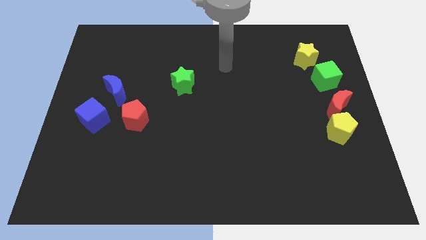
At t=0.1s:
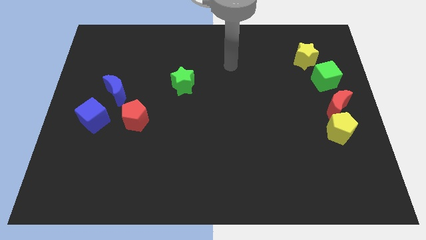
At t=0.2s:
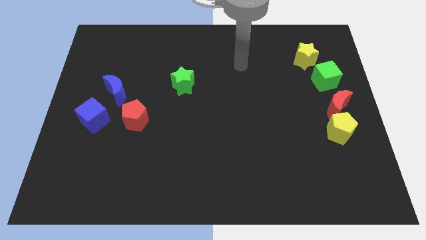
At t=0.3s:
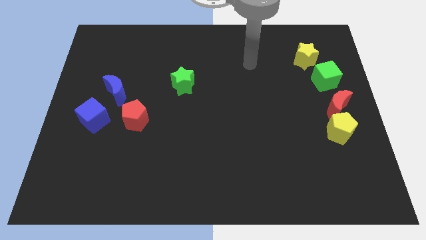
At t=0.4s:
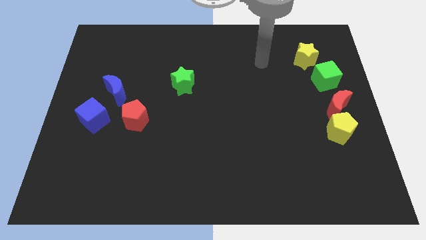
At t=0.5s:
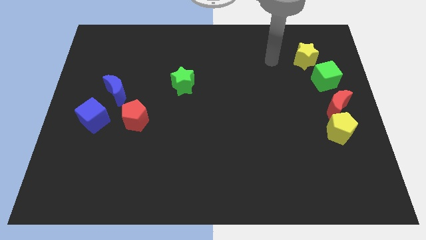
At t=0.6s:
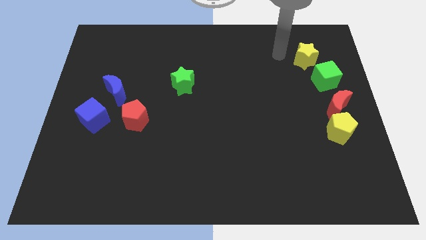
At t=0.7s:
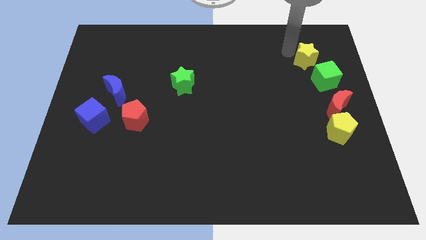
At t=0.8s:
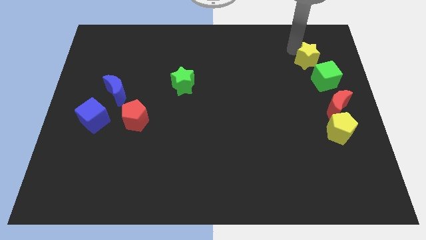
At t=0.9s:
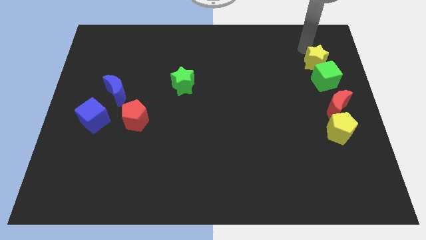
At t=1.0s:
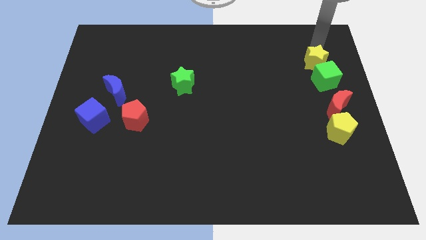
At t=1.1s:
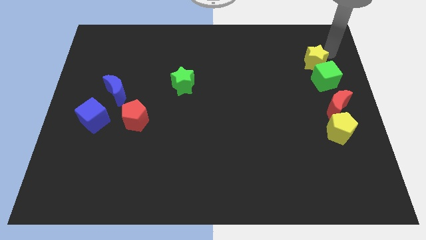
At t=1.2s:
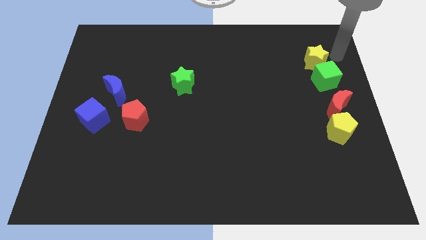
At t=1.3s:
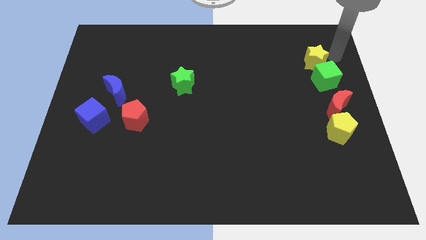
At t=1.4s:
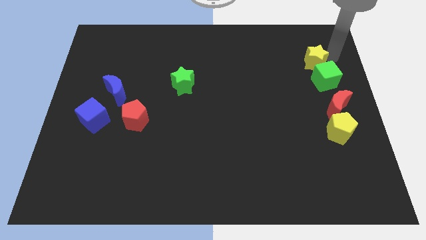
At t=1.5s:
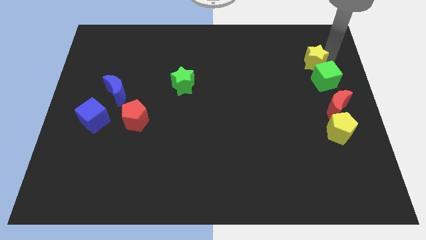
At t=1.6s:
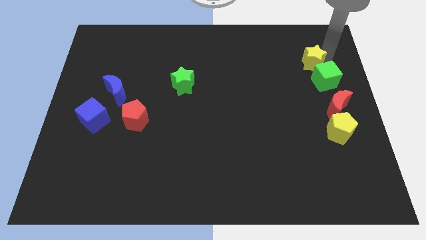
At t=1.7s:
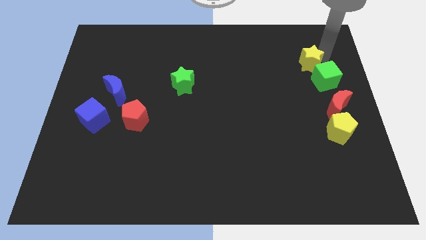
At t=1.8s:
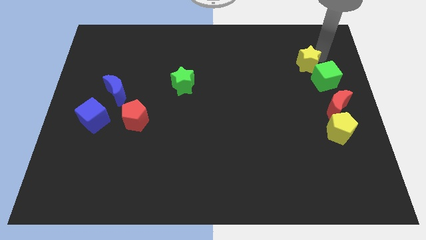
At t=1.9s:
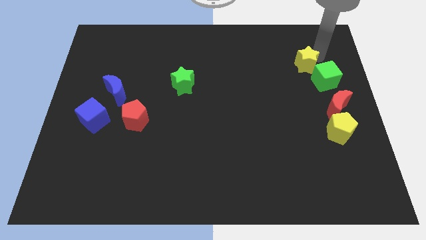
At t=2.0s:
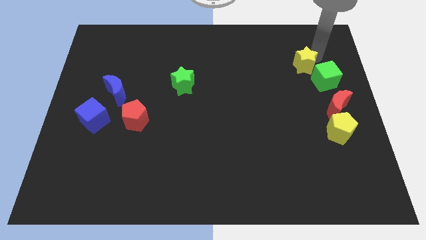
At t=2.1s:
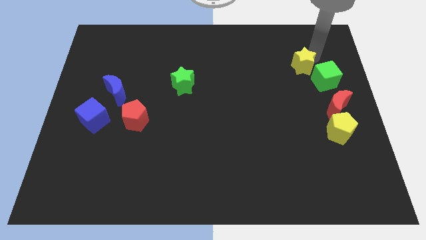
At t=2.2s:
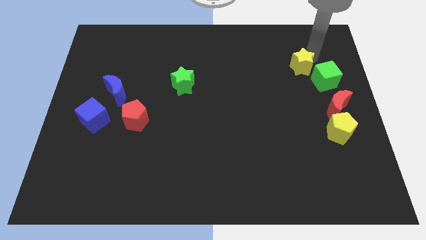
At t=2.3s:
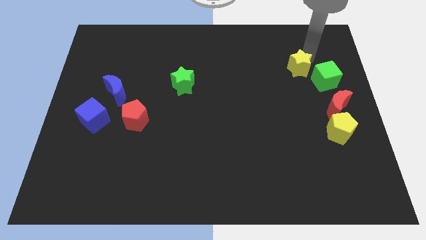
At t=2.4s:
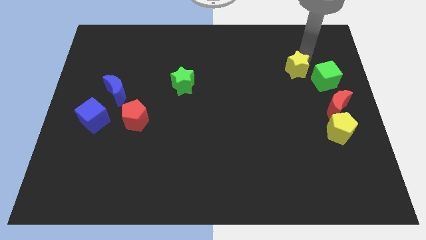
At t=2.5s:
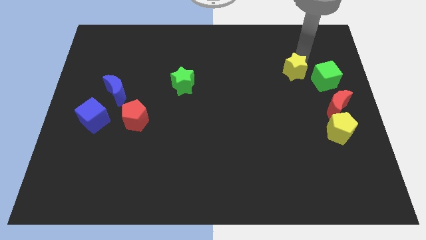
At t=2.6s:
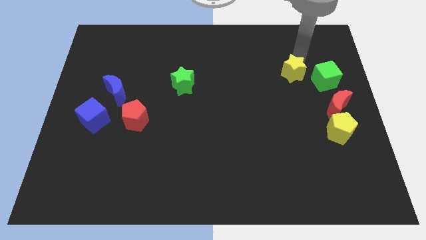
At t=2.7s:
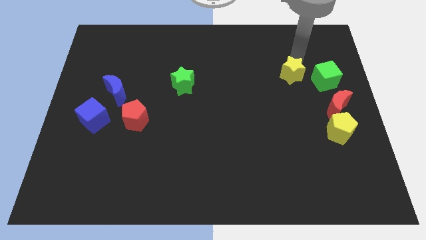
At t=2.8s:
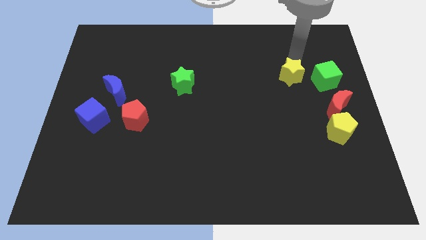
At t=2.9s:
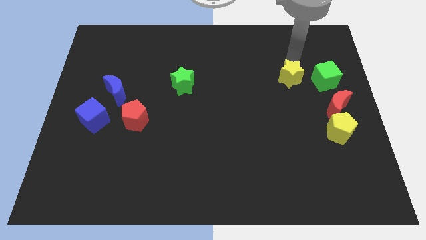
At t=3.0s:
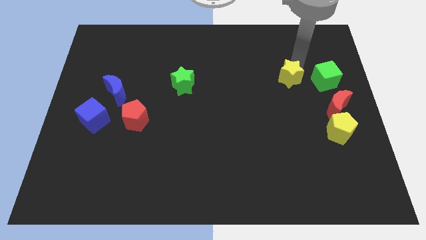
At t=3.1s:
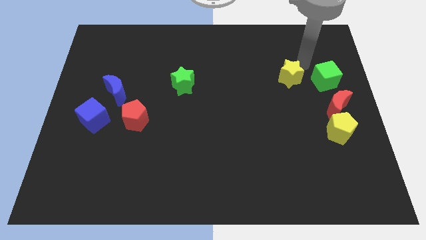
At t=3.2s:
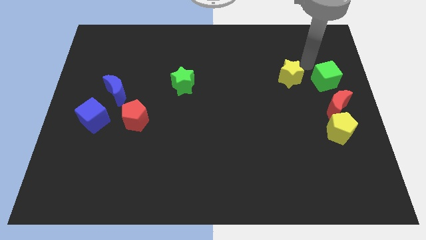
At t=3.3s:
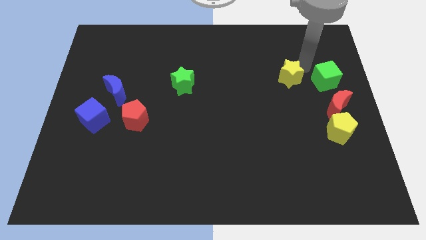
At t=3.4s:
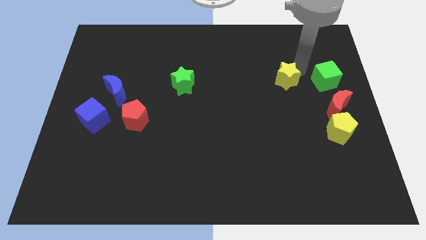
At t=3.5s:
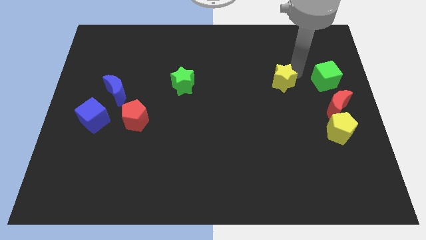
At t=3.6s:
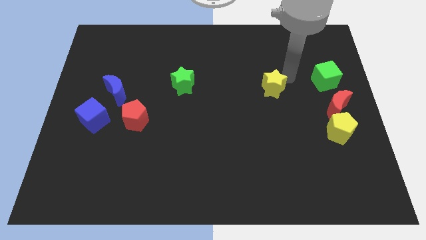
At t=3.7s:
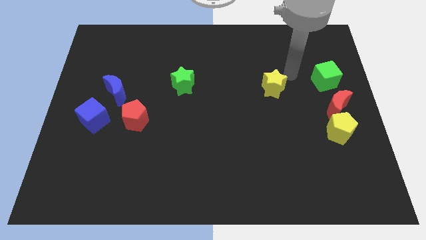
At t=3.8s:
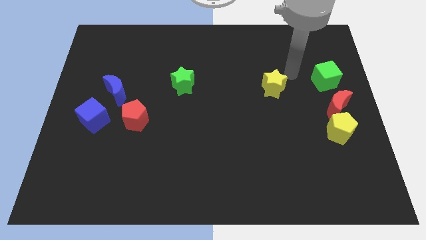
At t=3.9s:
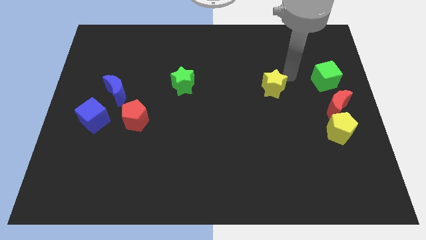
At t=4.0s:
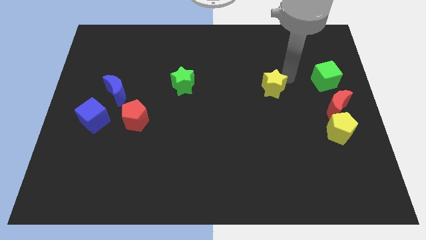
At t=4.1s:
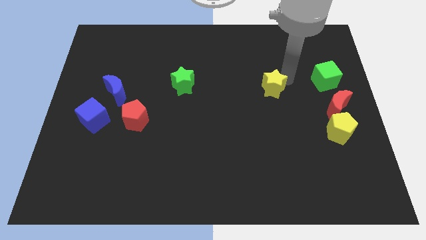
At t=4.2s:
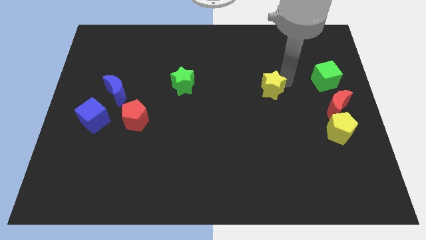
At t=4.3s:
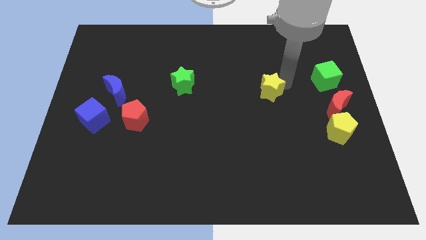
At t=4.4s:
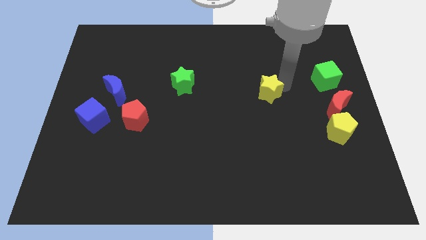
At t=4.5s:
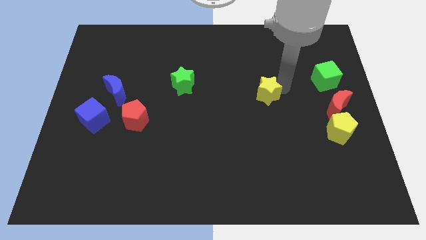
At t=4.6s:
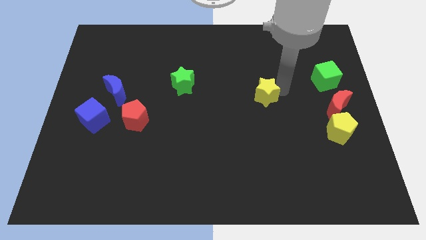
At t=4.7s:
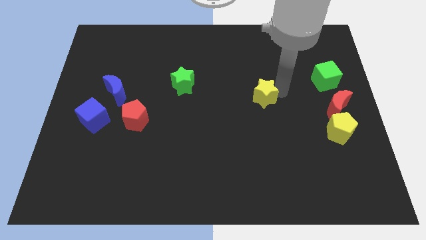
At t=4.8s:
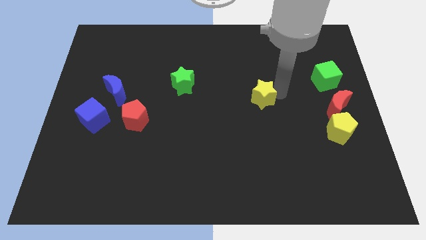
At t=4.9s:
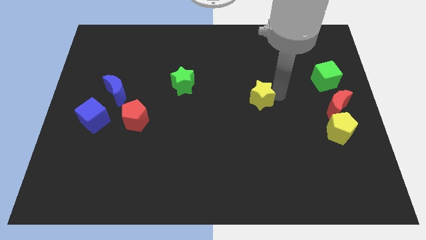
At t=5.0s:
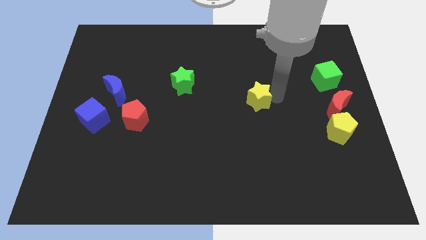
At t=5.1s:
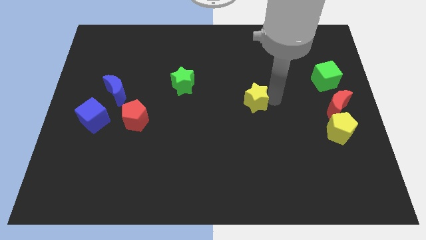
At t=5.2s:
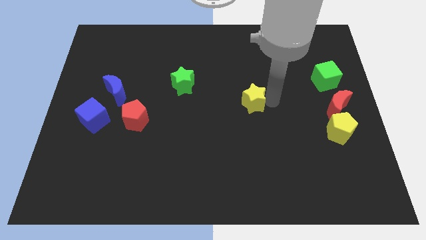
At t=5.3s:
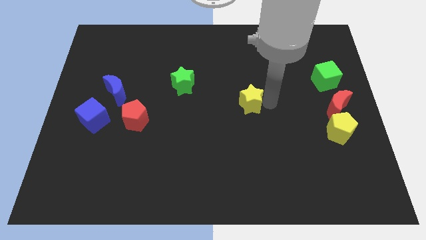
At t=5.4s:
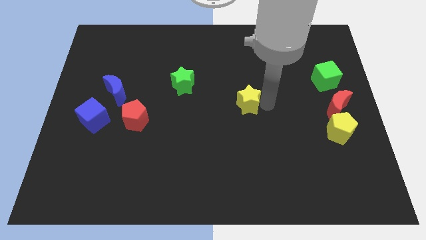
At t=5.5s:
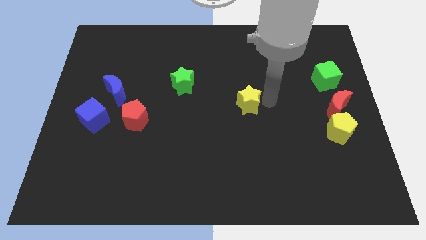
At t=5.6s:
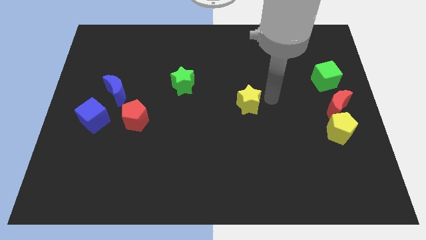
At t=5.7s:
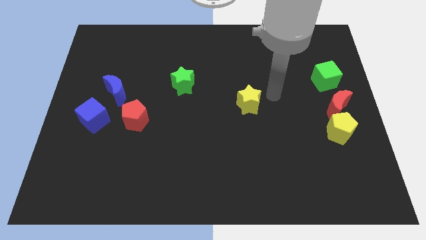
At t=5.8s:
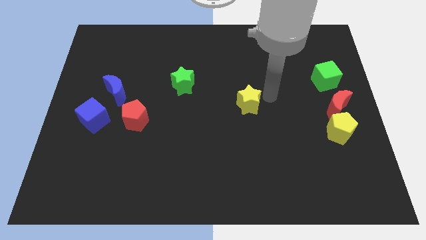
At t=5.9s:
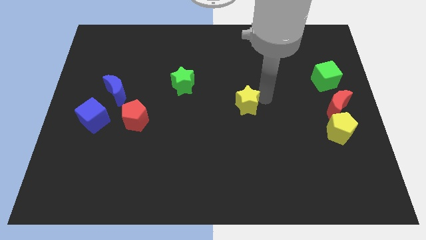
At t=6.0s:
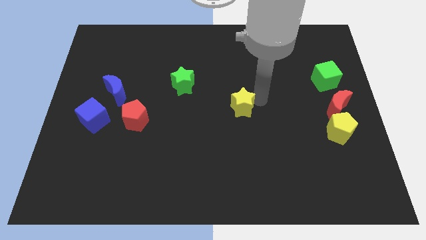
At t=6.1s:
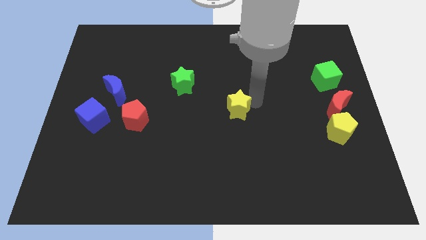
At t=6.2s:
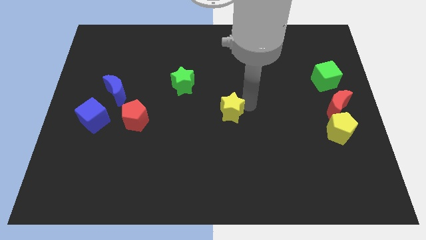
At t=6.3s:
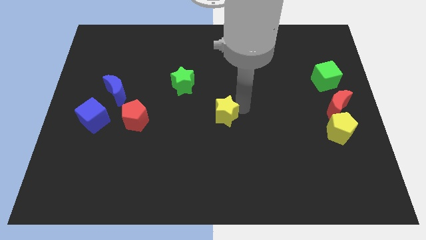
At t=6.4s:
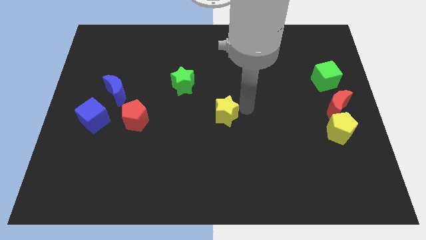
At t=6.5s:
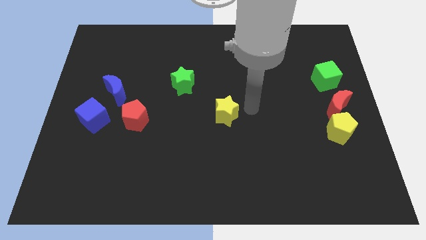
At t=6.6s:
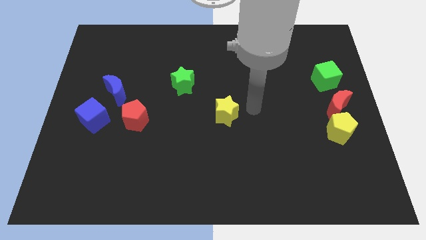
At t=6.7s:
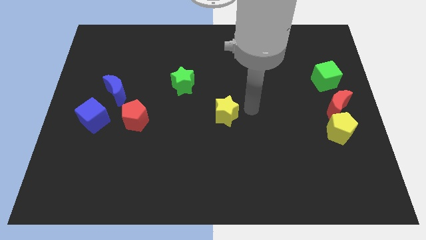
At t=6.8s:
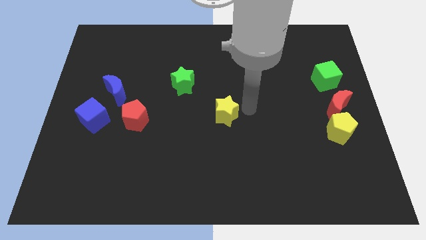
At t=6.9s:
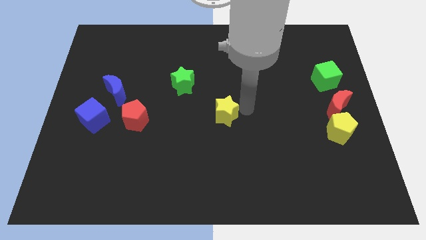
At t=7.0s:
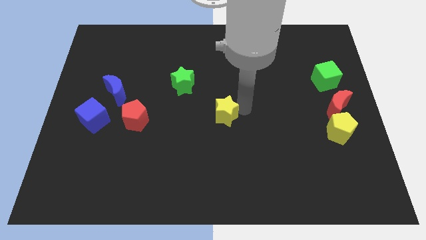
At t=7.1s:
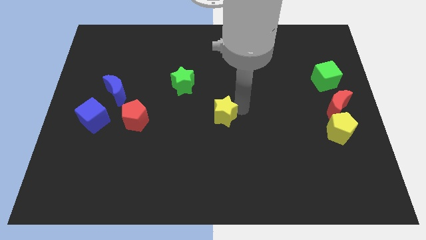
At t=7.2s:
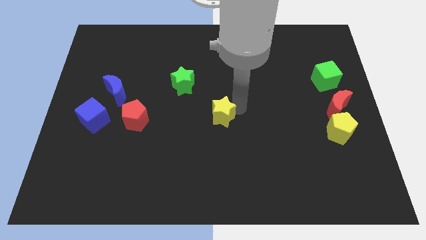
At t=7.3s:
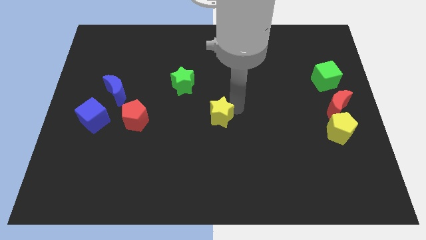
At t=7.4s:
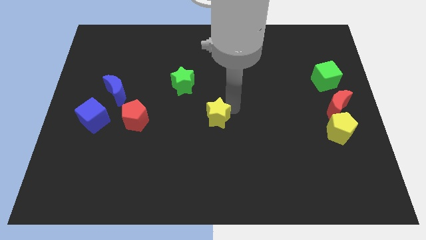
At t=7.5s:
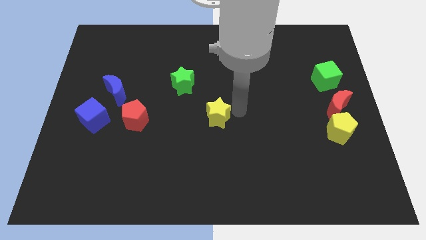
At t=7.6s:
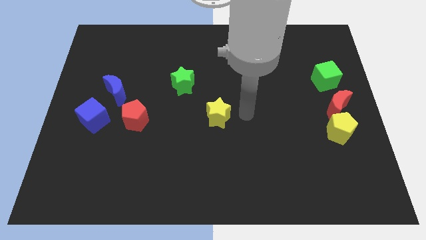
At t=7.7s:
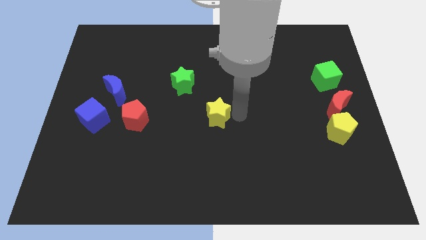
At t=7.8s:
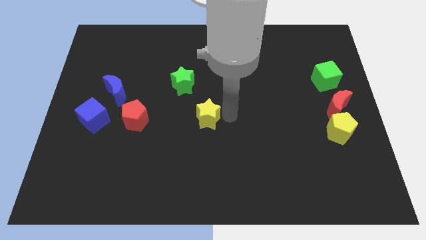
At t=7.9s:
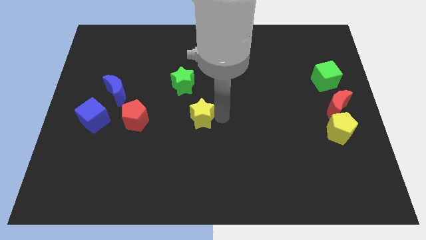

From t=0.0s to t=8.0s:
move the yellow star below the green star

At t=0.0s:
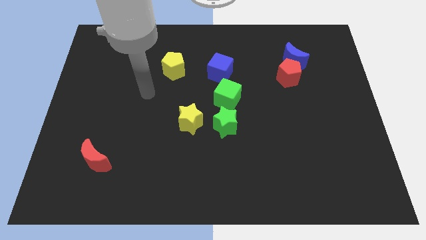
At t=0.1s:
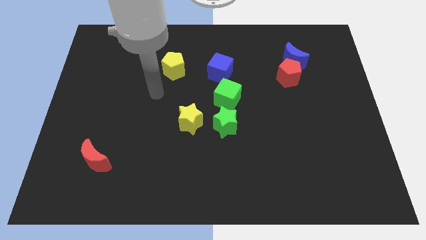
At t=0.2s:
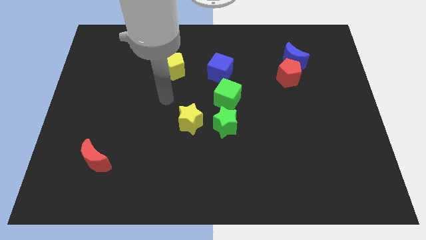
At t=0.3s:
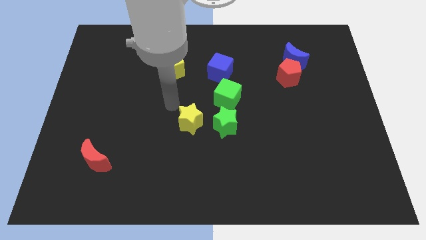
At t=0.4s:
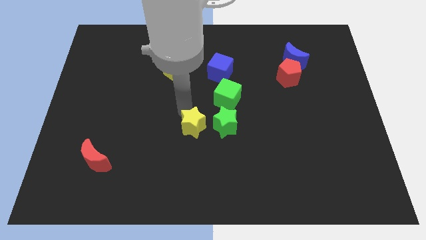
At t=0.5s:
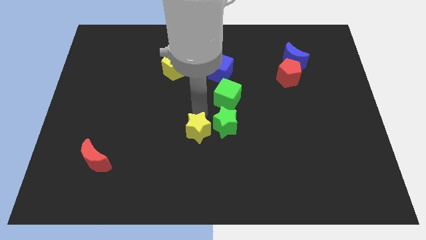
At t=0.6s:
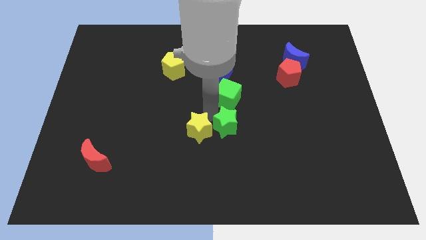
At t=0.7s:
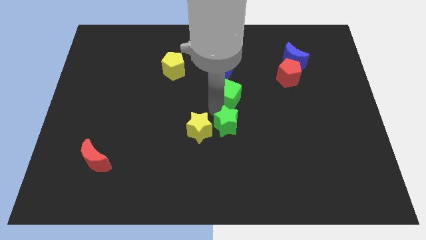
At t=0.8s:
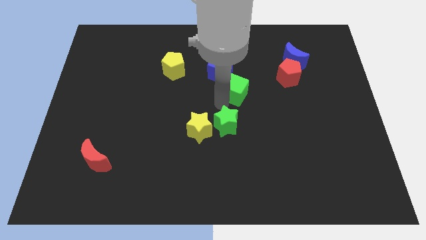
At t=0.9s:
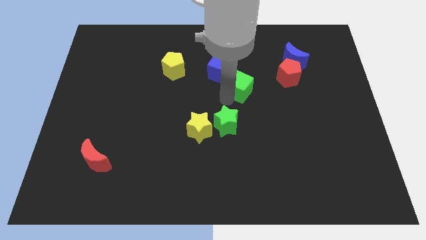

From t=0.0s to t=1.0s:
push the green cube to the left side of the red pentagon
